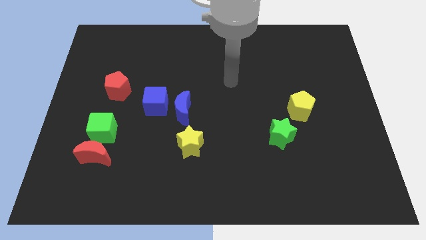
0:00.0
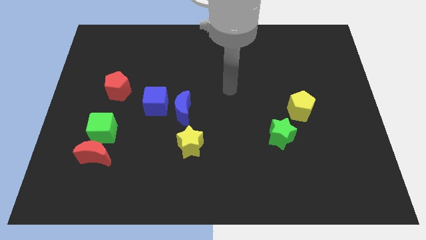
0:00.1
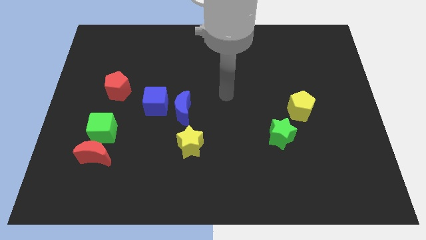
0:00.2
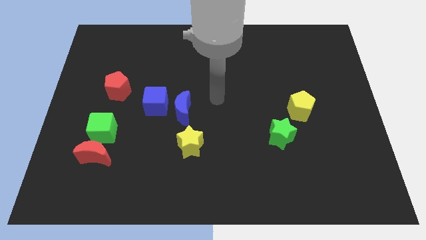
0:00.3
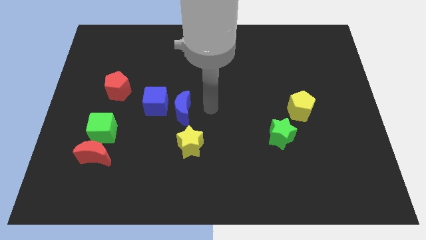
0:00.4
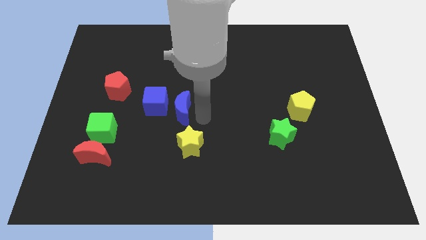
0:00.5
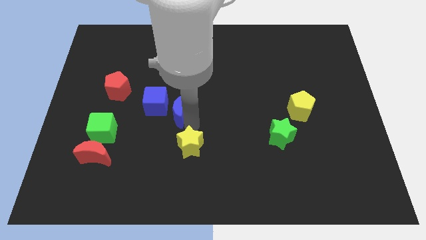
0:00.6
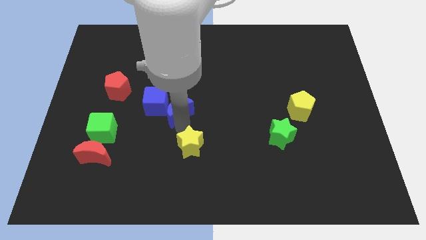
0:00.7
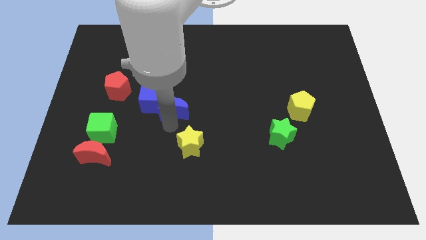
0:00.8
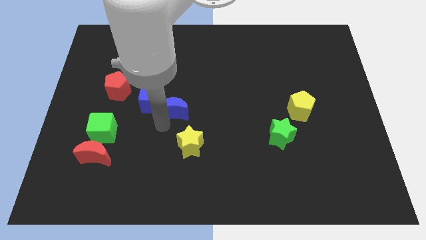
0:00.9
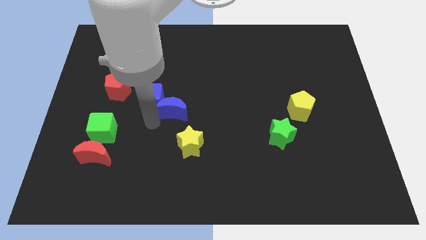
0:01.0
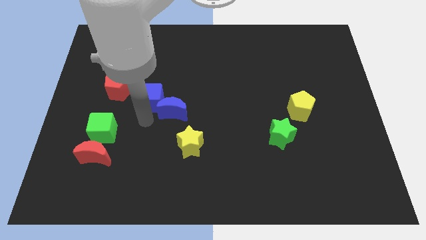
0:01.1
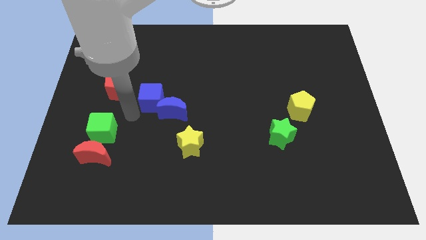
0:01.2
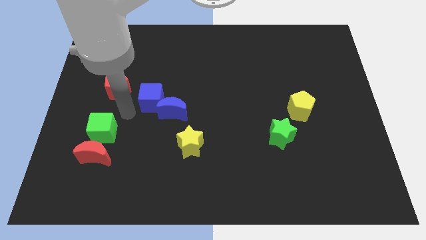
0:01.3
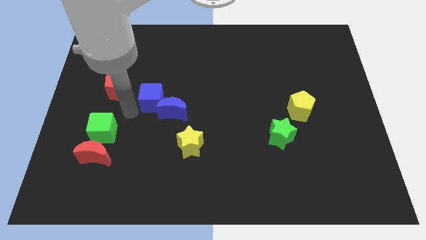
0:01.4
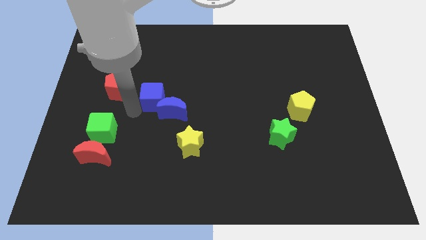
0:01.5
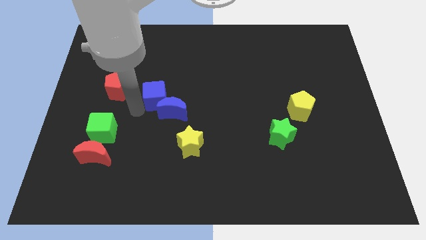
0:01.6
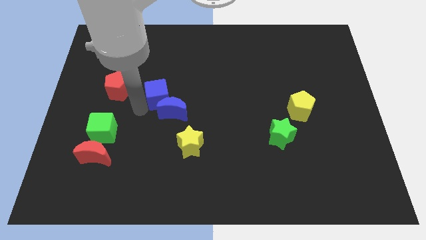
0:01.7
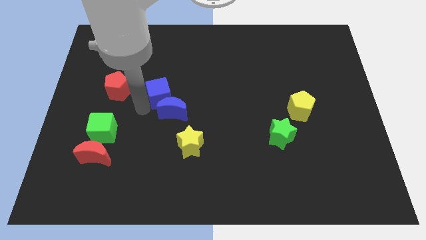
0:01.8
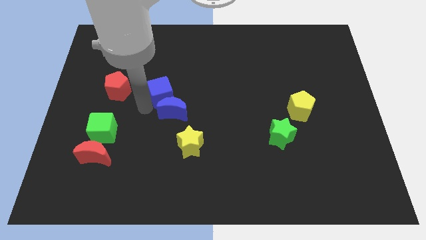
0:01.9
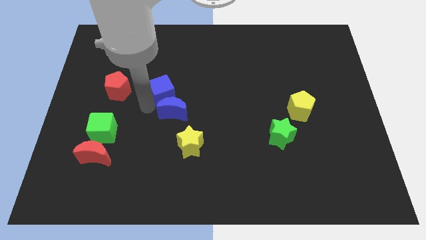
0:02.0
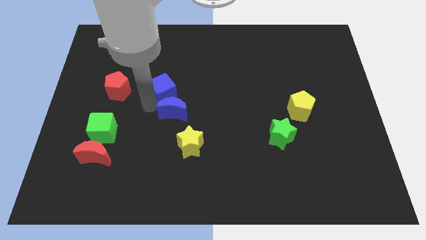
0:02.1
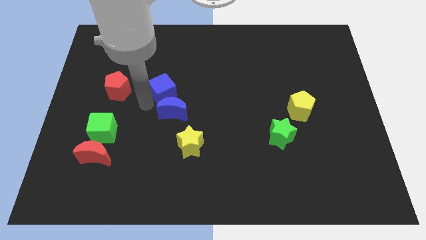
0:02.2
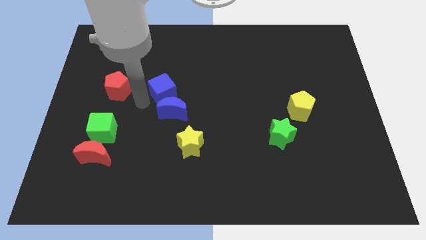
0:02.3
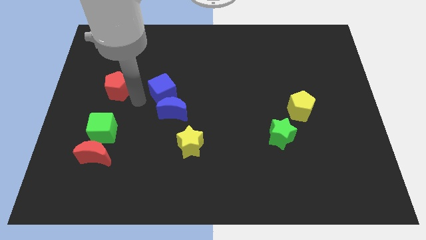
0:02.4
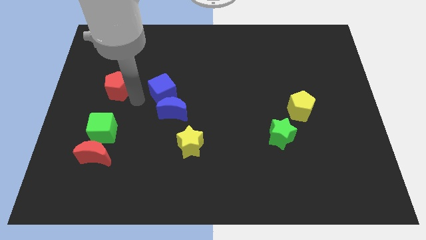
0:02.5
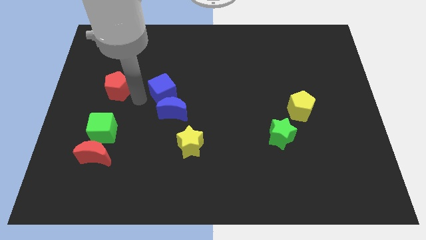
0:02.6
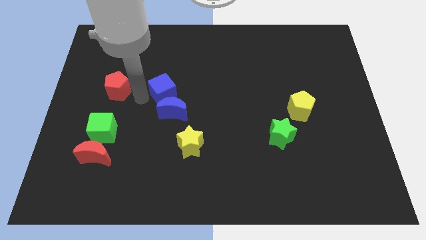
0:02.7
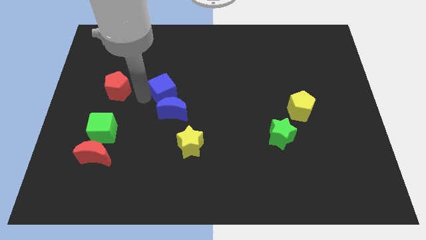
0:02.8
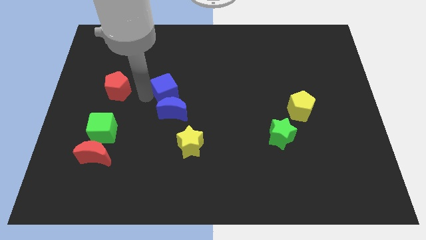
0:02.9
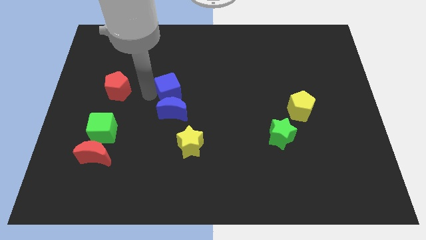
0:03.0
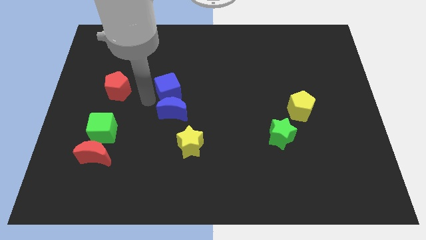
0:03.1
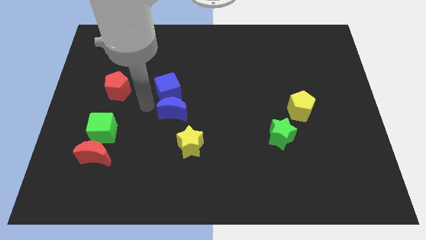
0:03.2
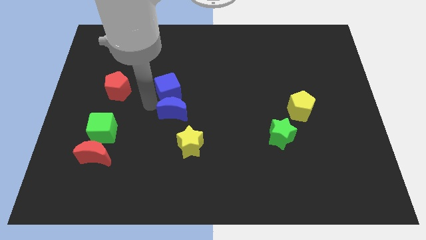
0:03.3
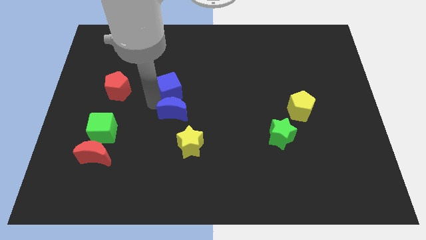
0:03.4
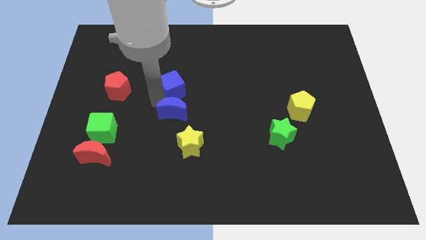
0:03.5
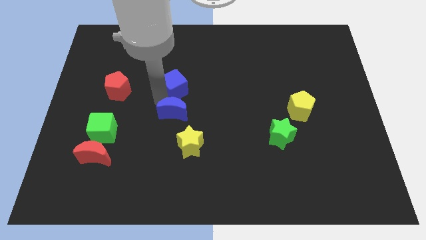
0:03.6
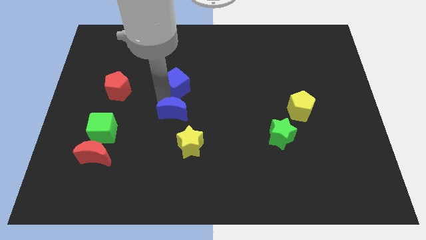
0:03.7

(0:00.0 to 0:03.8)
slightly move the blue cube diagonally up and to the right

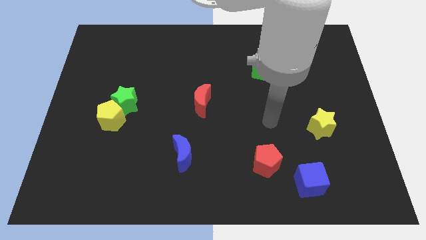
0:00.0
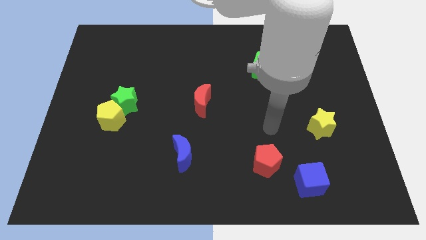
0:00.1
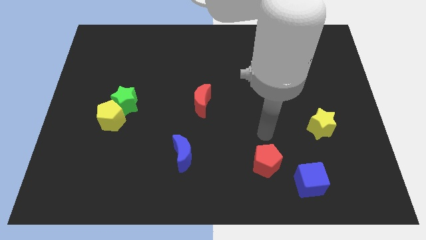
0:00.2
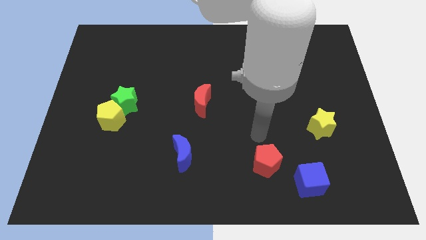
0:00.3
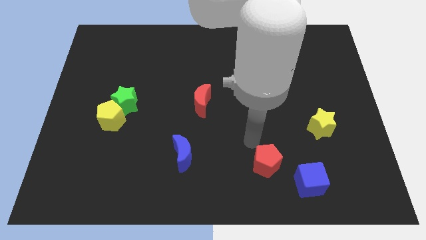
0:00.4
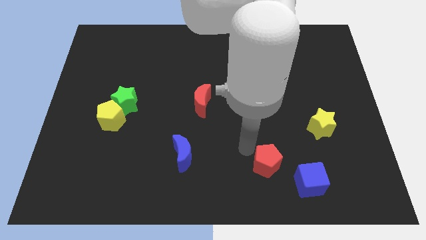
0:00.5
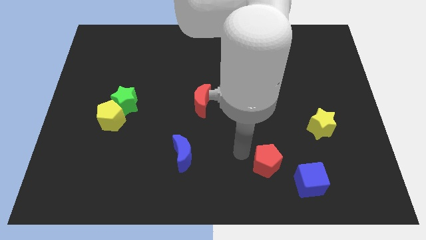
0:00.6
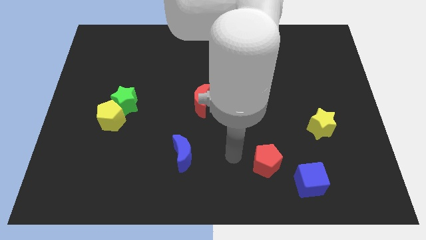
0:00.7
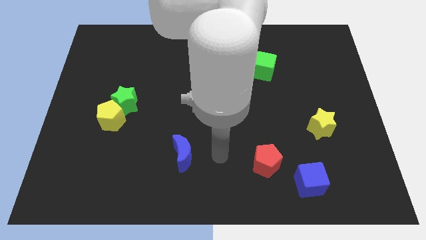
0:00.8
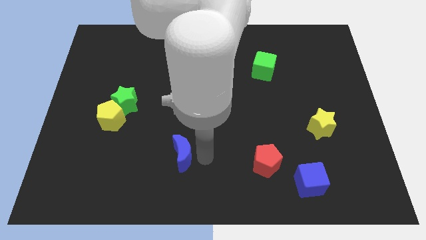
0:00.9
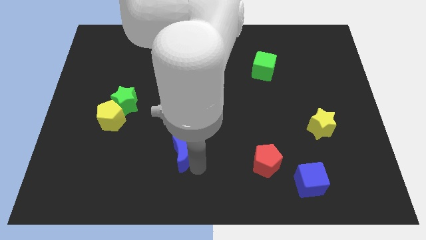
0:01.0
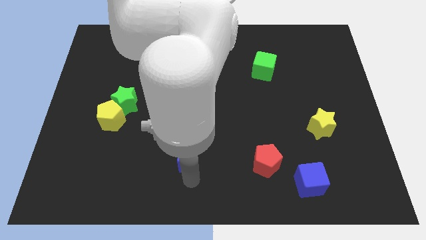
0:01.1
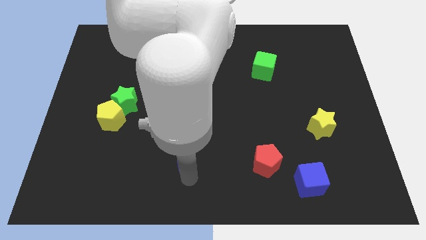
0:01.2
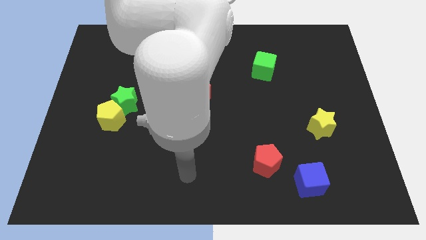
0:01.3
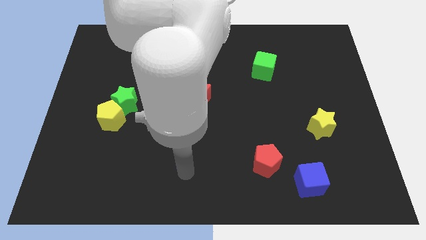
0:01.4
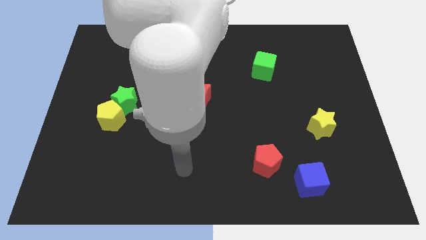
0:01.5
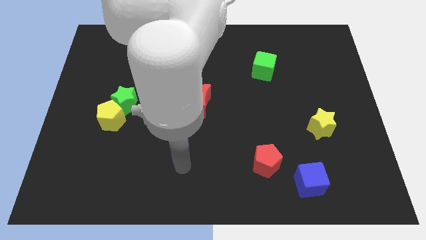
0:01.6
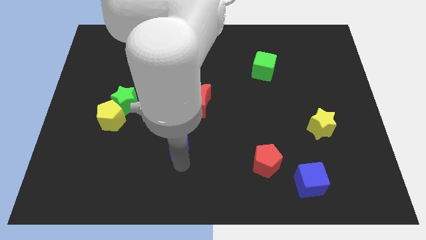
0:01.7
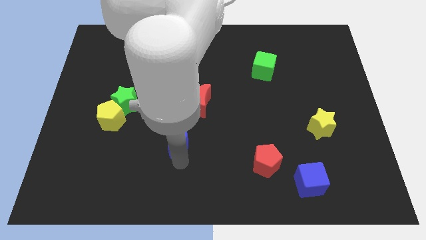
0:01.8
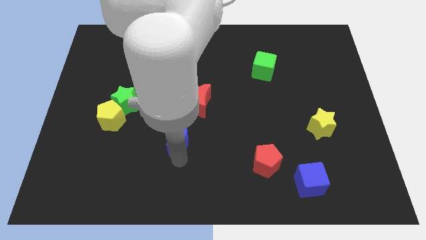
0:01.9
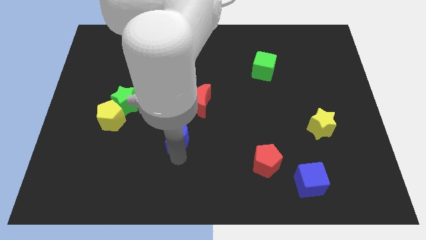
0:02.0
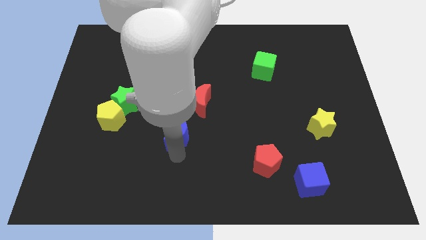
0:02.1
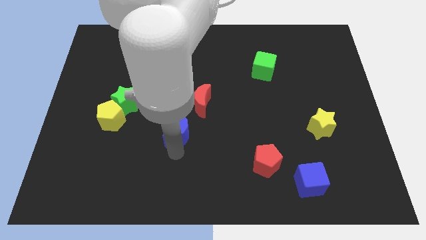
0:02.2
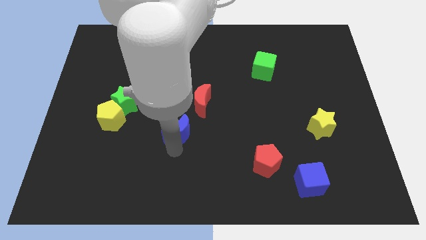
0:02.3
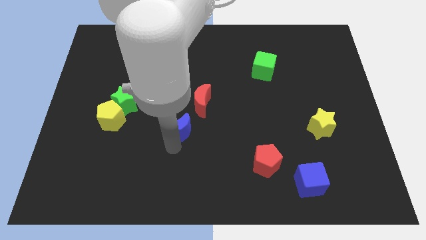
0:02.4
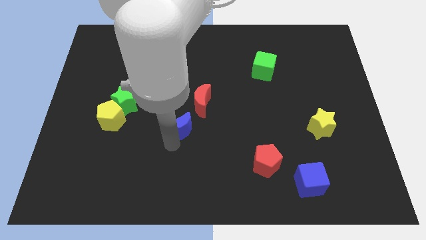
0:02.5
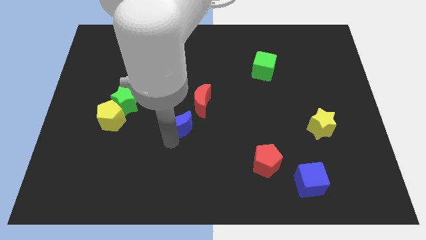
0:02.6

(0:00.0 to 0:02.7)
slide the blue moon somewhat upwards

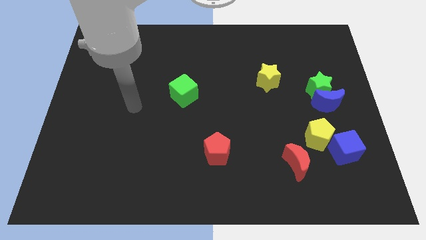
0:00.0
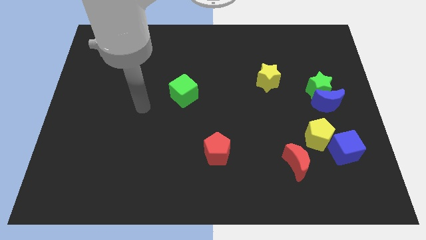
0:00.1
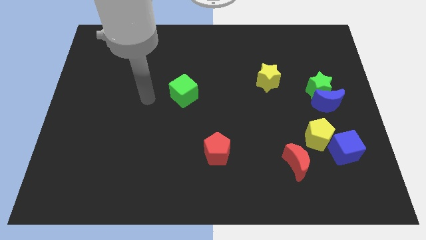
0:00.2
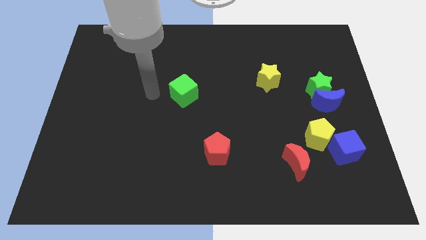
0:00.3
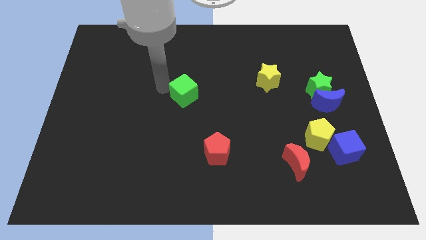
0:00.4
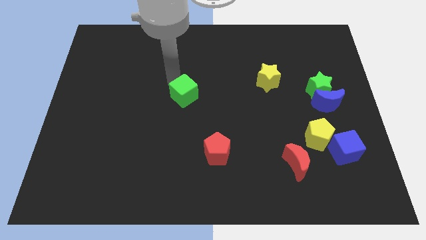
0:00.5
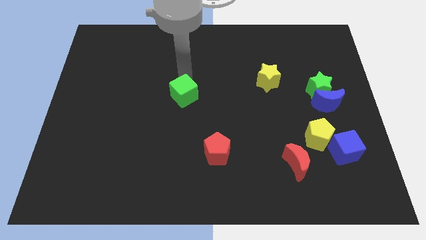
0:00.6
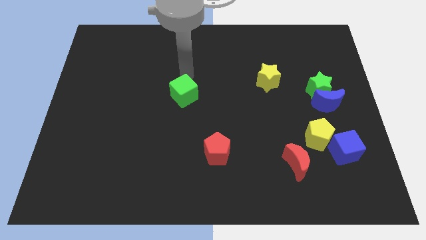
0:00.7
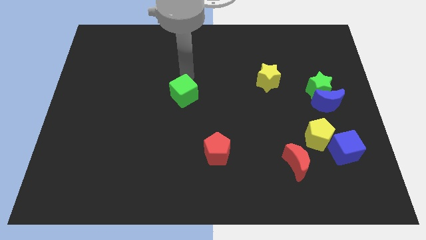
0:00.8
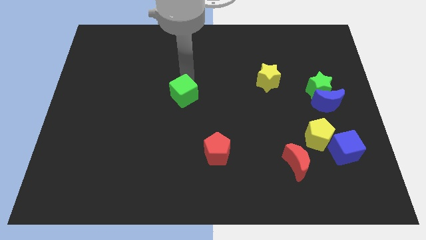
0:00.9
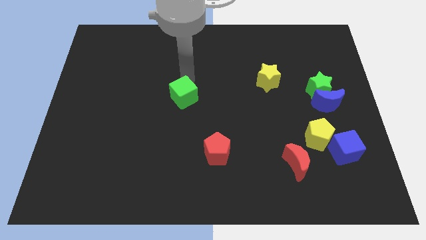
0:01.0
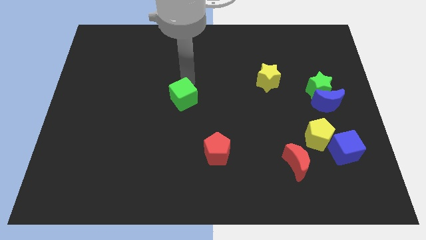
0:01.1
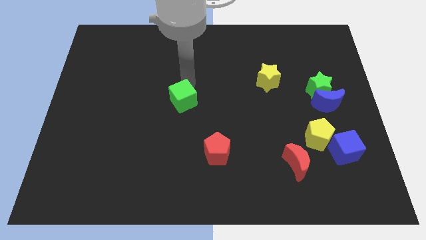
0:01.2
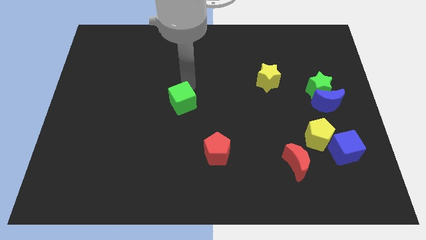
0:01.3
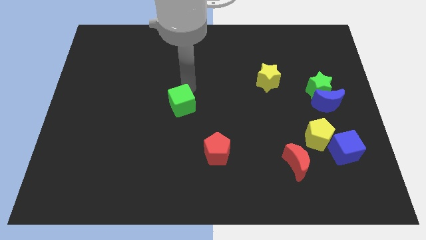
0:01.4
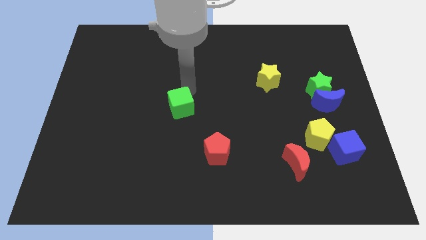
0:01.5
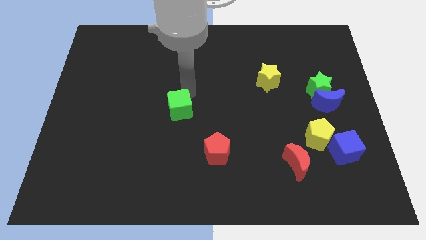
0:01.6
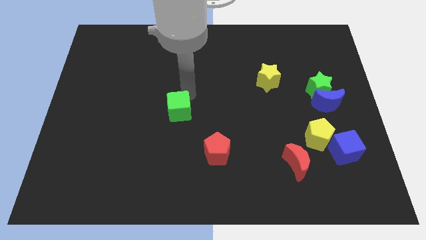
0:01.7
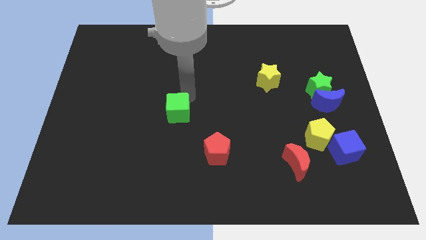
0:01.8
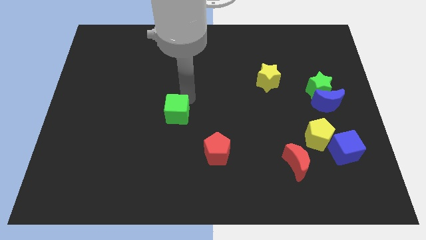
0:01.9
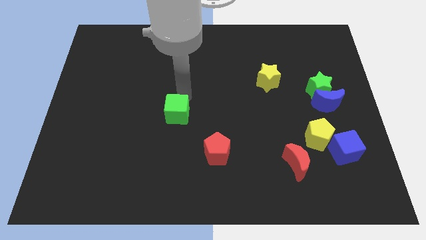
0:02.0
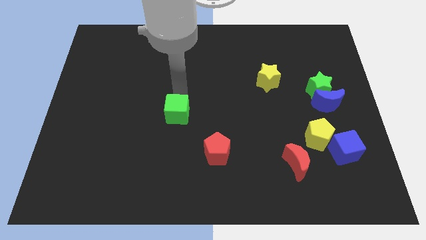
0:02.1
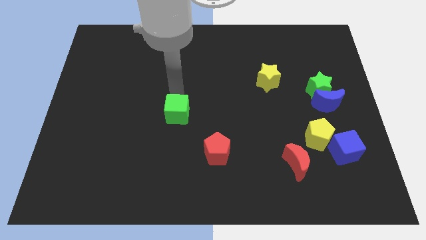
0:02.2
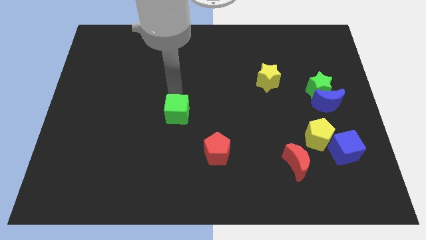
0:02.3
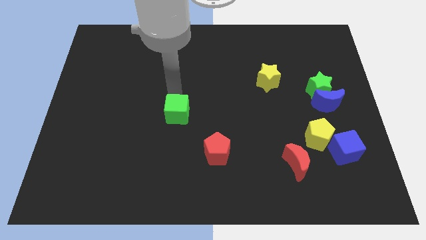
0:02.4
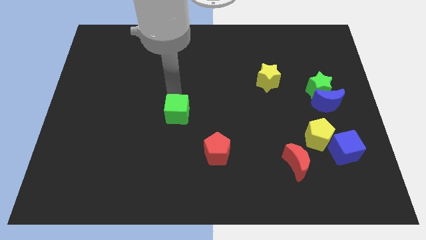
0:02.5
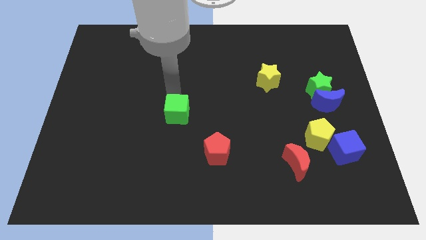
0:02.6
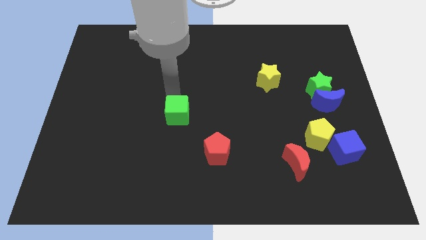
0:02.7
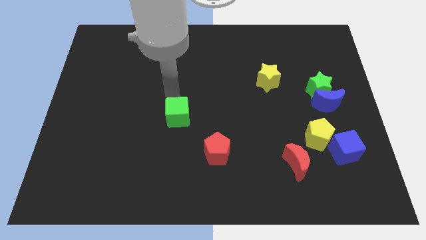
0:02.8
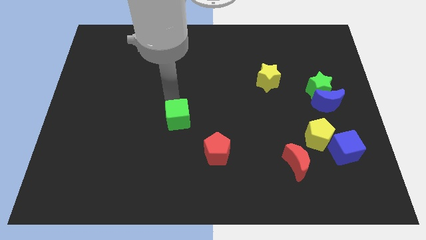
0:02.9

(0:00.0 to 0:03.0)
push the green cube somewhat down
